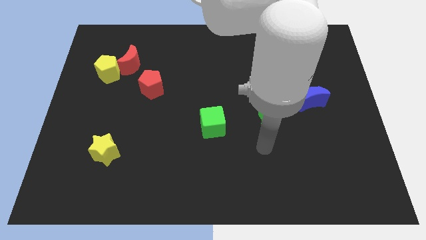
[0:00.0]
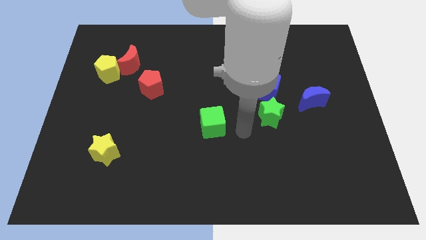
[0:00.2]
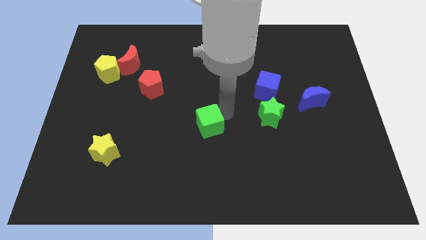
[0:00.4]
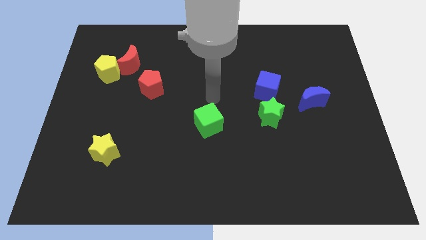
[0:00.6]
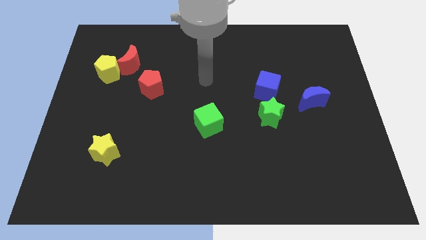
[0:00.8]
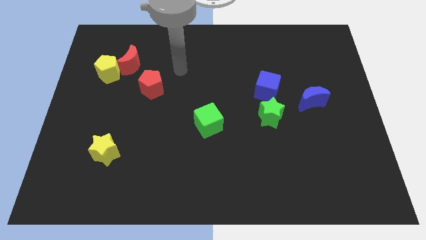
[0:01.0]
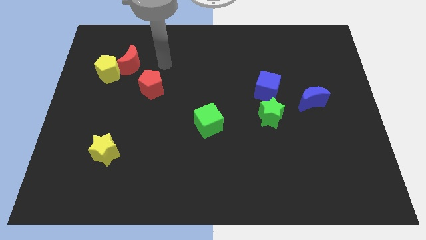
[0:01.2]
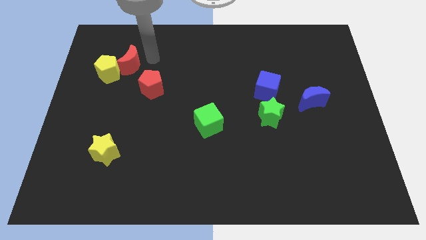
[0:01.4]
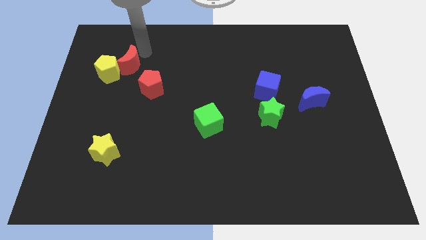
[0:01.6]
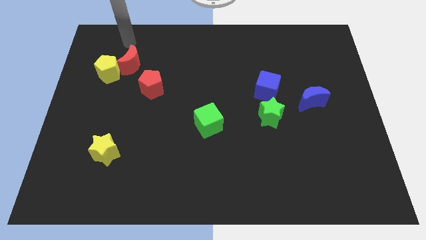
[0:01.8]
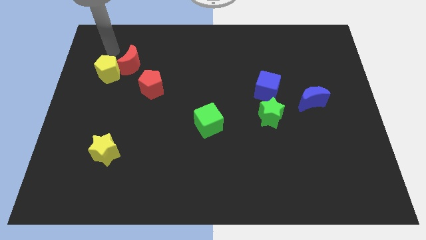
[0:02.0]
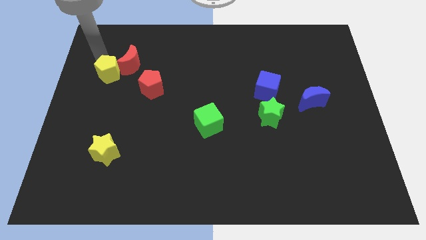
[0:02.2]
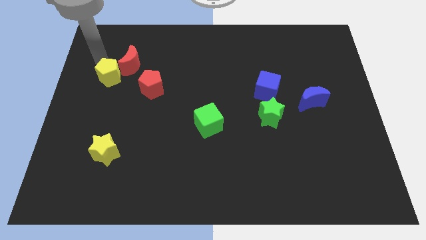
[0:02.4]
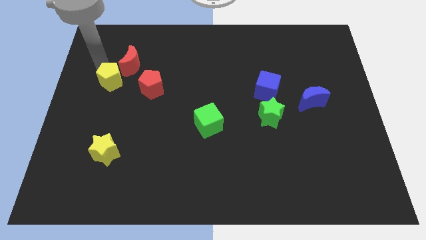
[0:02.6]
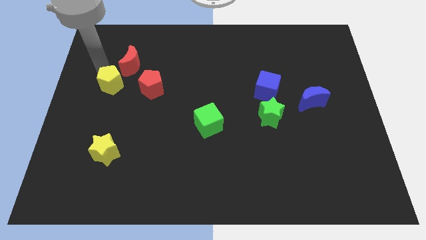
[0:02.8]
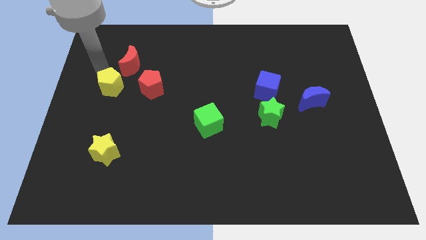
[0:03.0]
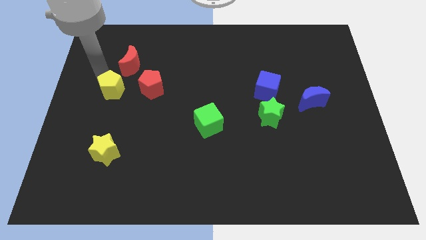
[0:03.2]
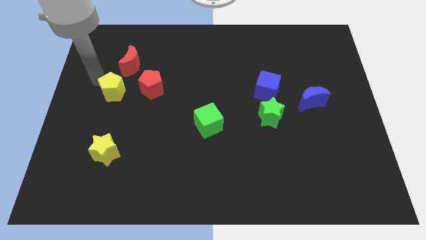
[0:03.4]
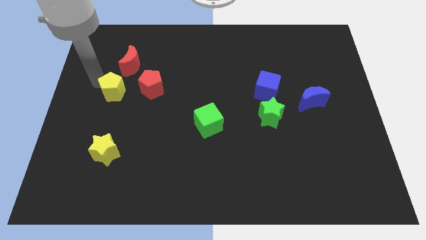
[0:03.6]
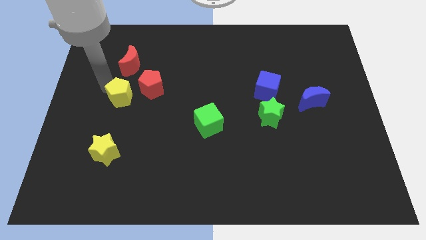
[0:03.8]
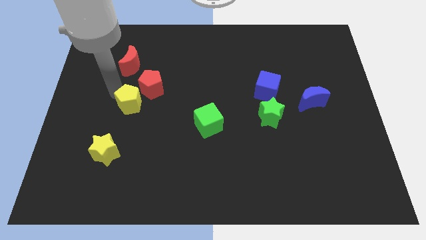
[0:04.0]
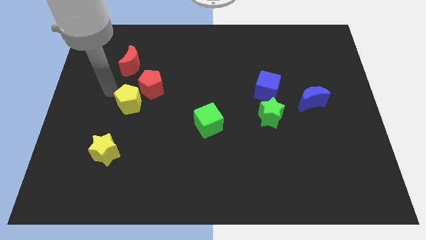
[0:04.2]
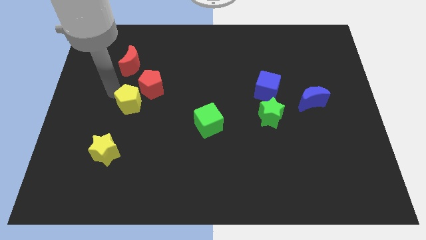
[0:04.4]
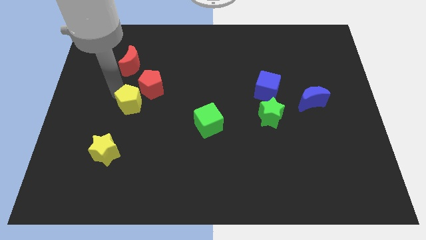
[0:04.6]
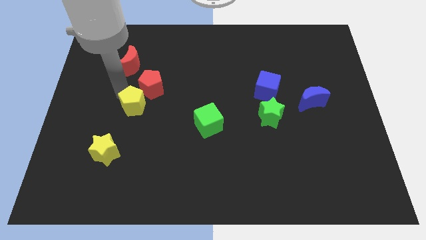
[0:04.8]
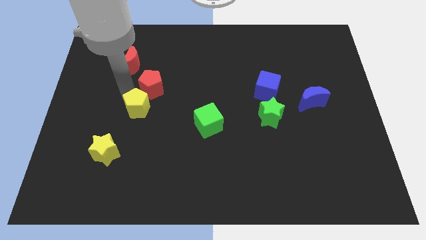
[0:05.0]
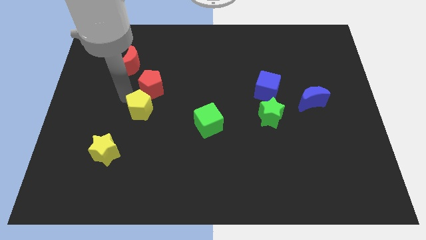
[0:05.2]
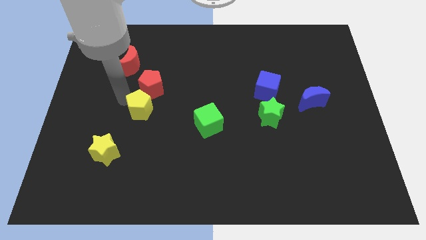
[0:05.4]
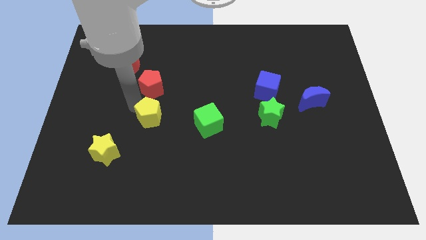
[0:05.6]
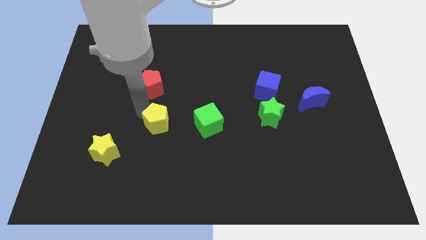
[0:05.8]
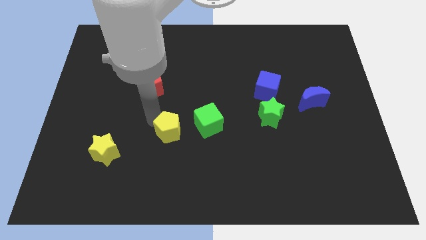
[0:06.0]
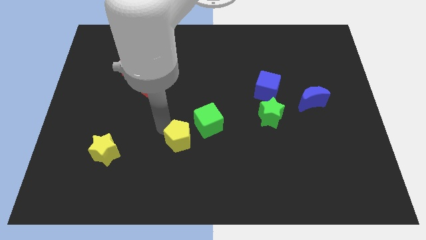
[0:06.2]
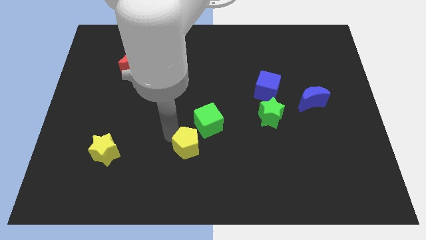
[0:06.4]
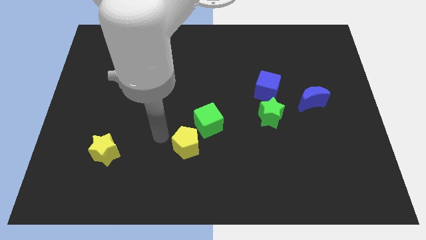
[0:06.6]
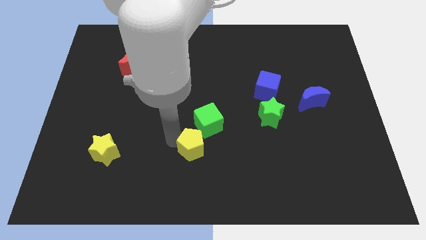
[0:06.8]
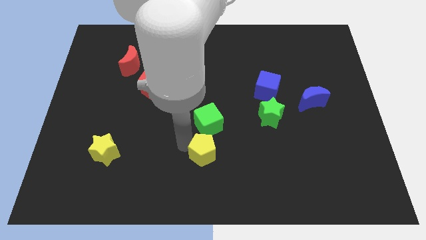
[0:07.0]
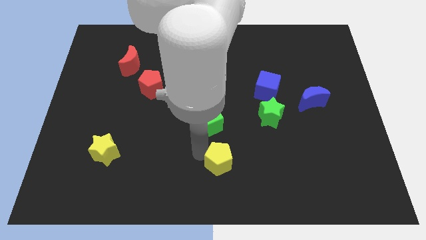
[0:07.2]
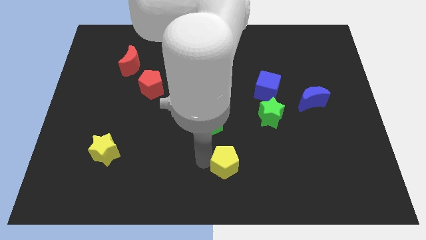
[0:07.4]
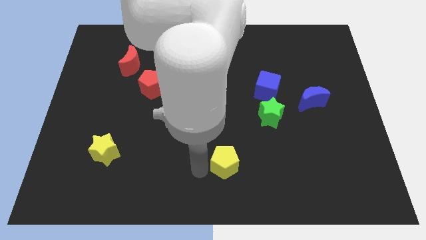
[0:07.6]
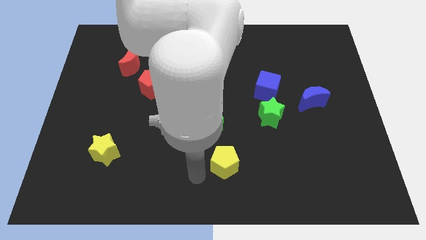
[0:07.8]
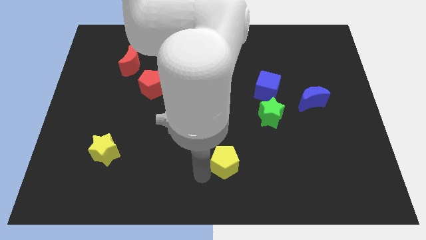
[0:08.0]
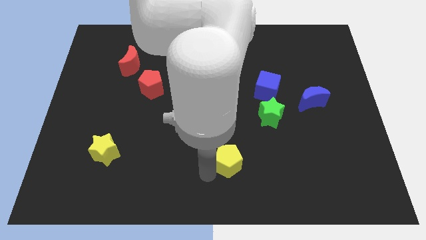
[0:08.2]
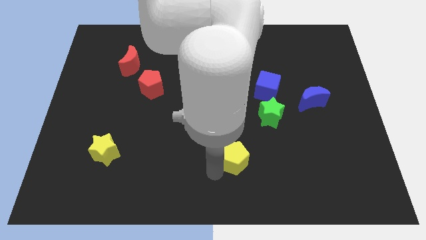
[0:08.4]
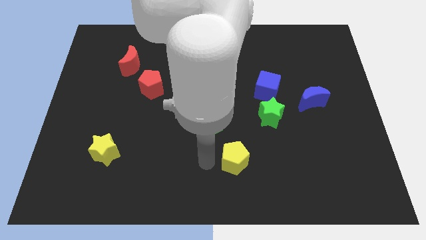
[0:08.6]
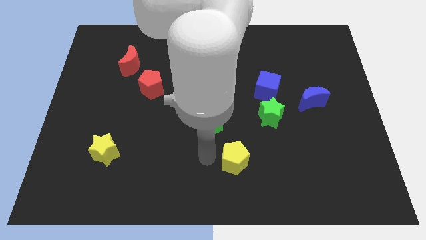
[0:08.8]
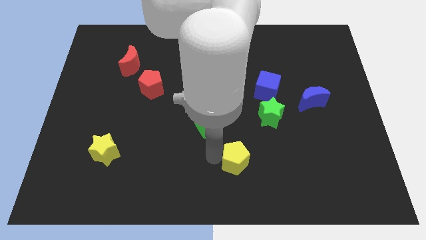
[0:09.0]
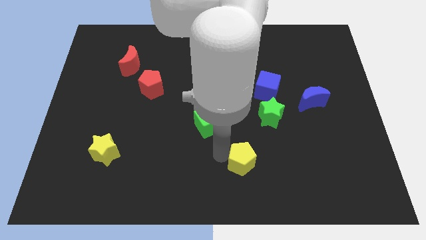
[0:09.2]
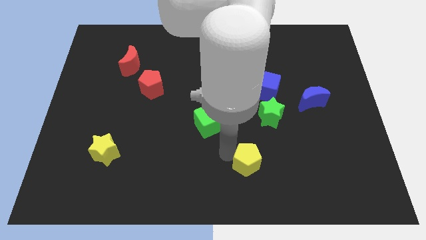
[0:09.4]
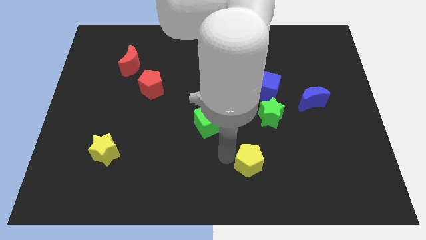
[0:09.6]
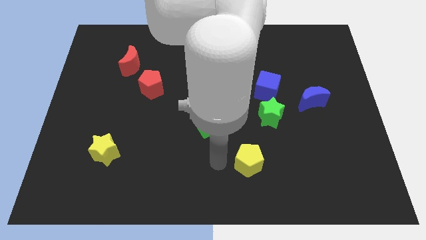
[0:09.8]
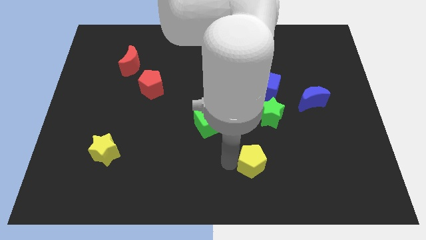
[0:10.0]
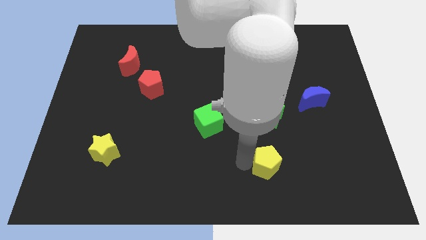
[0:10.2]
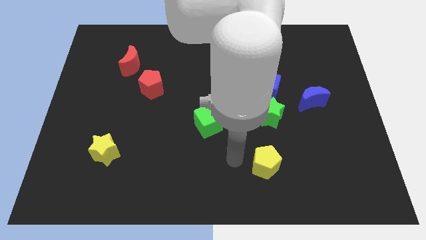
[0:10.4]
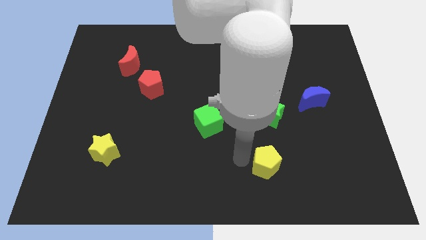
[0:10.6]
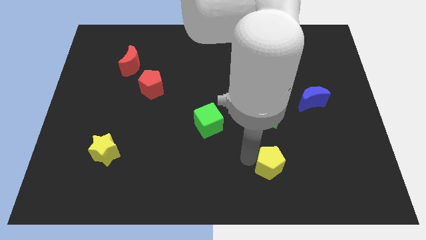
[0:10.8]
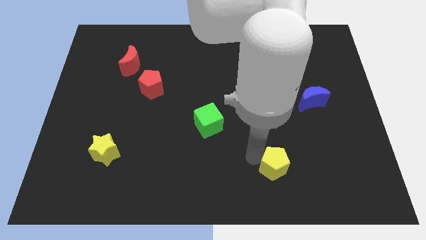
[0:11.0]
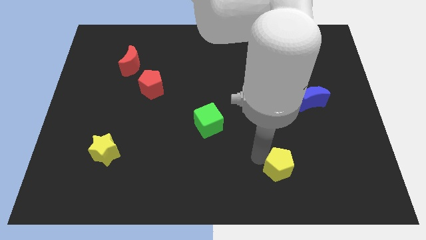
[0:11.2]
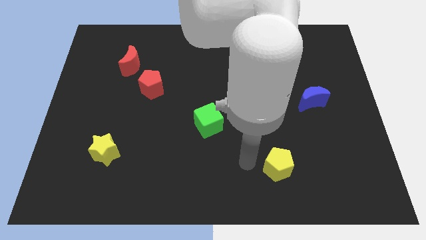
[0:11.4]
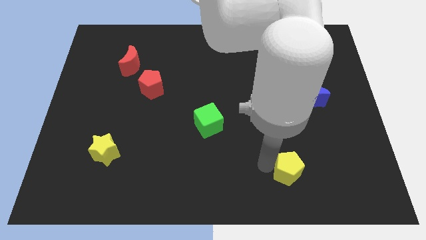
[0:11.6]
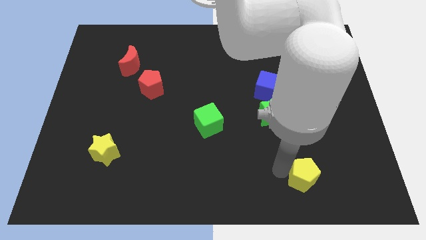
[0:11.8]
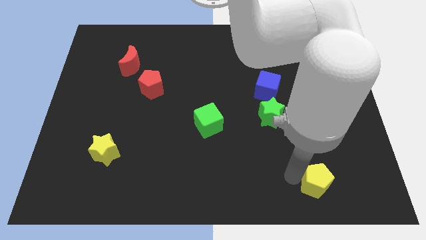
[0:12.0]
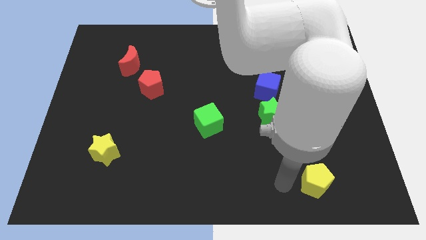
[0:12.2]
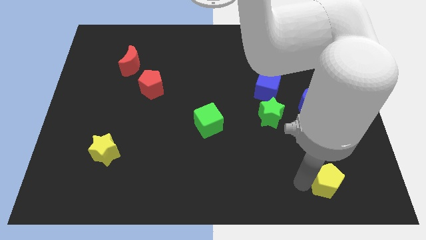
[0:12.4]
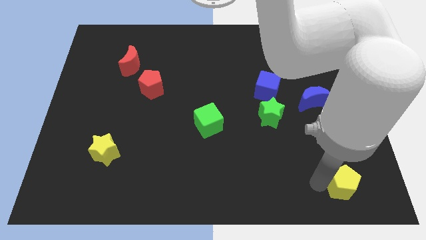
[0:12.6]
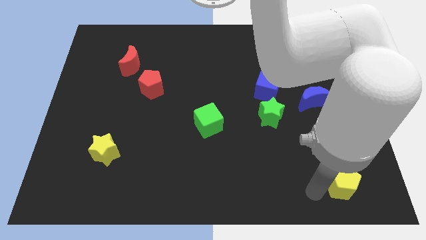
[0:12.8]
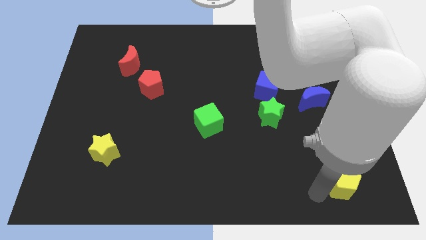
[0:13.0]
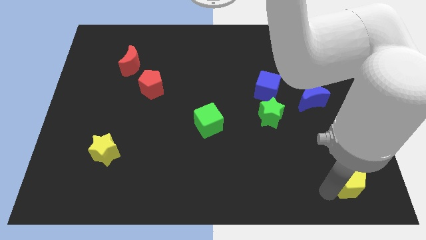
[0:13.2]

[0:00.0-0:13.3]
put the yellow pentagon to the lower right corner
